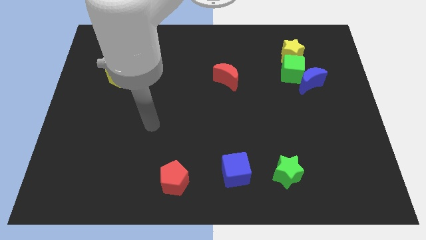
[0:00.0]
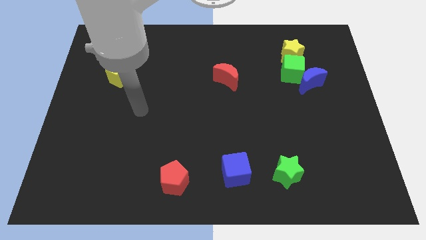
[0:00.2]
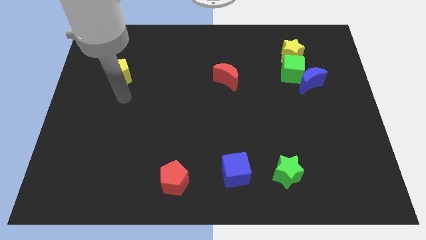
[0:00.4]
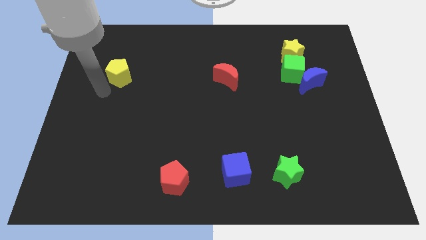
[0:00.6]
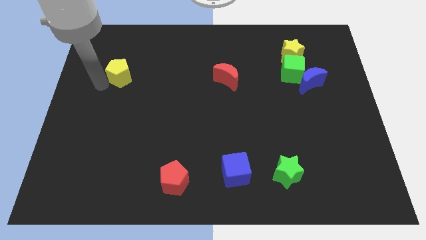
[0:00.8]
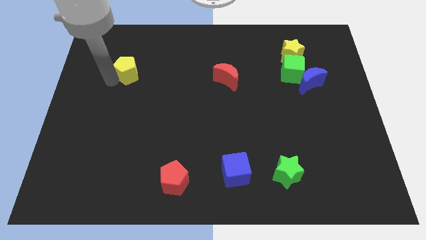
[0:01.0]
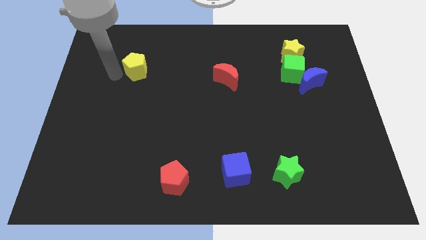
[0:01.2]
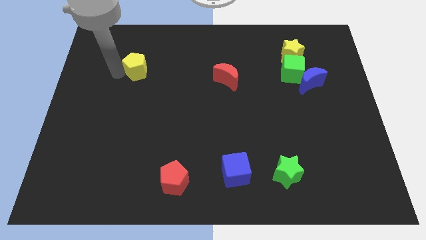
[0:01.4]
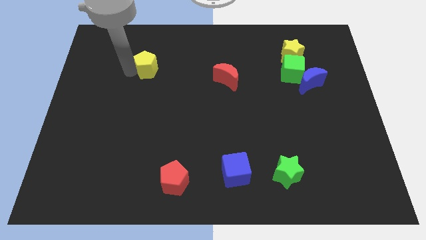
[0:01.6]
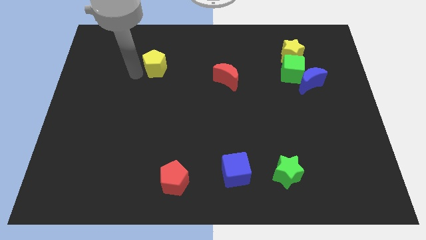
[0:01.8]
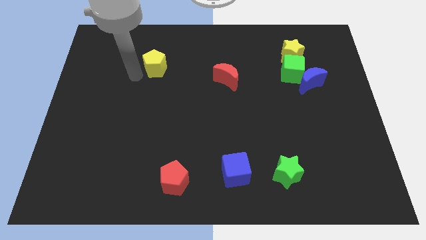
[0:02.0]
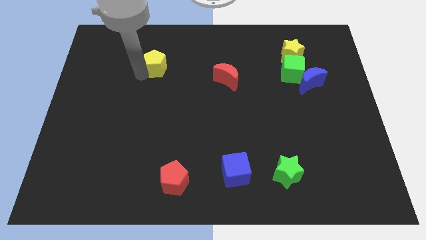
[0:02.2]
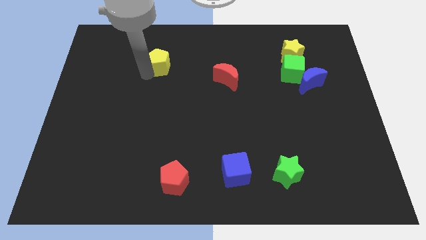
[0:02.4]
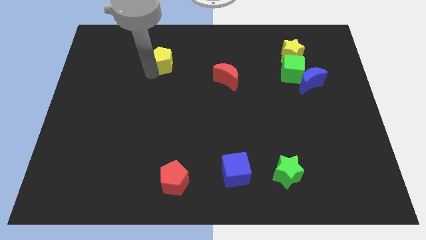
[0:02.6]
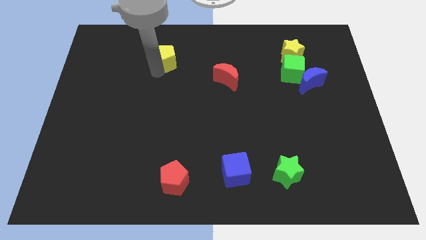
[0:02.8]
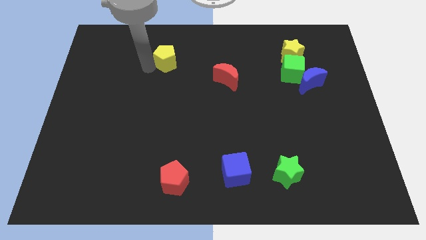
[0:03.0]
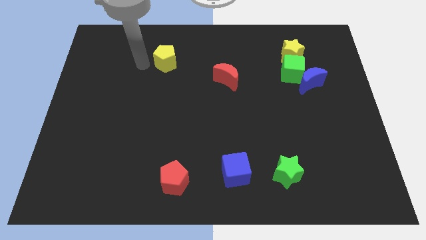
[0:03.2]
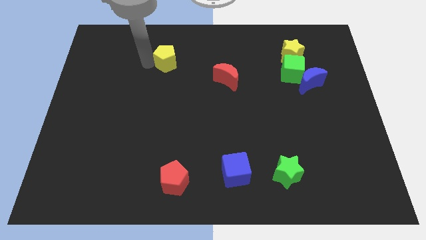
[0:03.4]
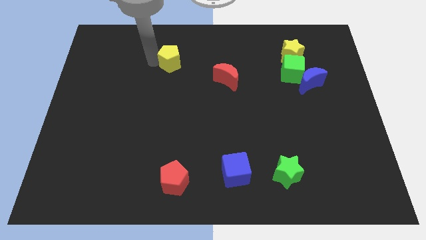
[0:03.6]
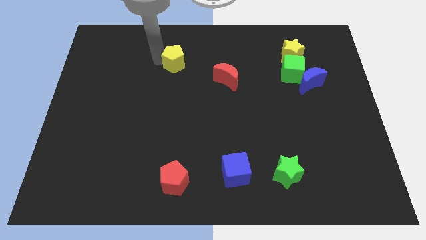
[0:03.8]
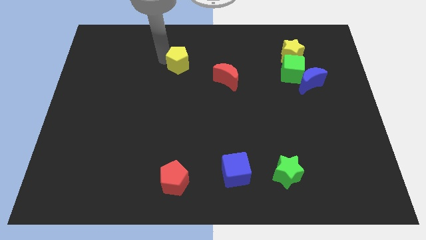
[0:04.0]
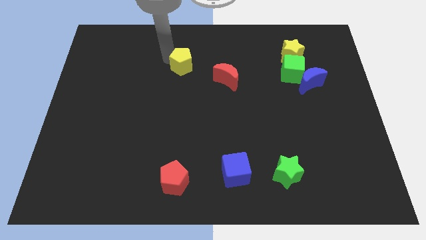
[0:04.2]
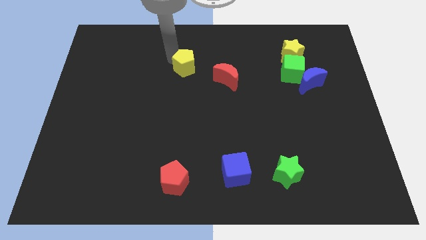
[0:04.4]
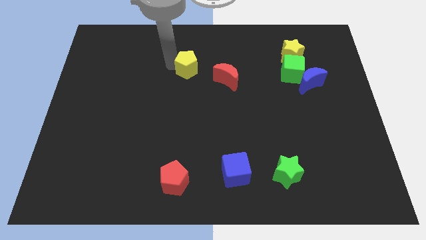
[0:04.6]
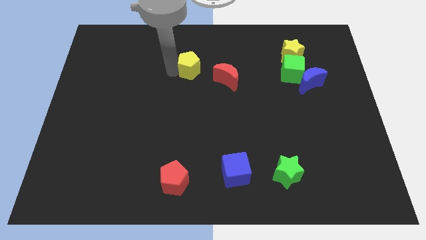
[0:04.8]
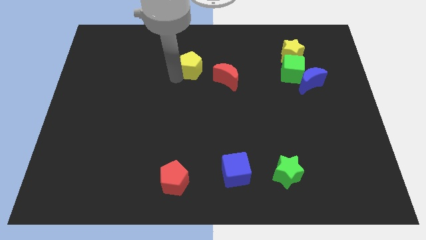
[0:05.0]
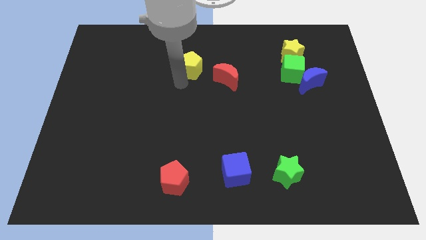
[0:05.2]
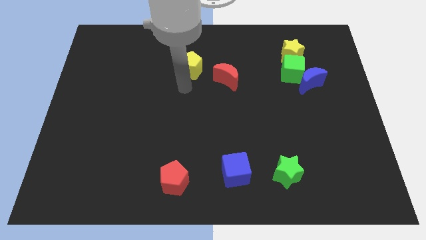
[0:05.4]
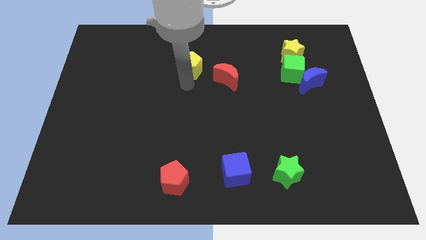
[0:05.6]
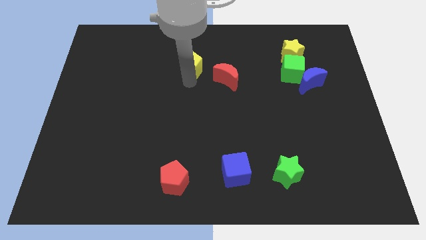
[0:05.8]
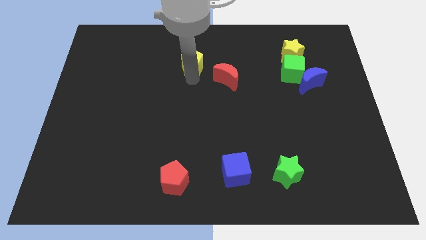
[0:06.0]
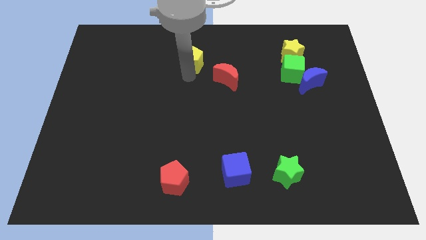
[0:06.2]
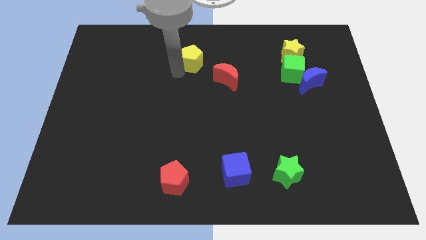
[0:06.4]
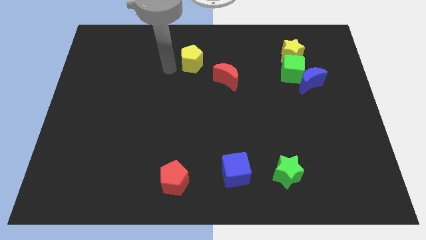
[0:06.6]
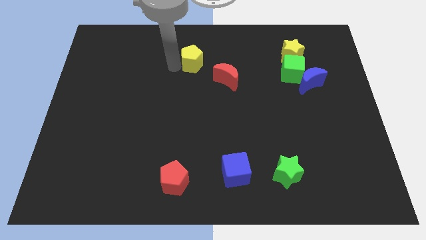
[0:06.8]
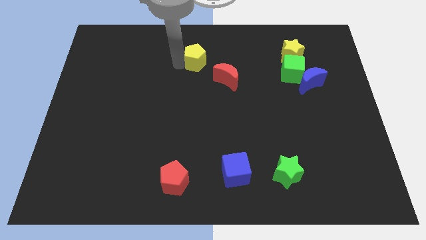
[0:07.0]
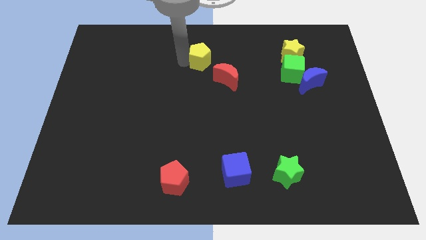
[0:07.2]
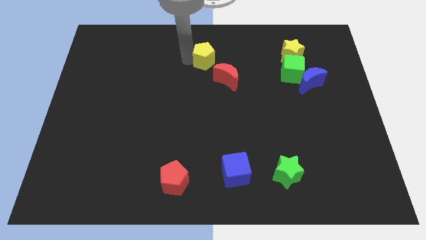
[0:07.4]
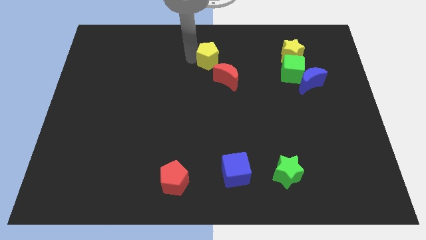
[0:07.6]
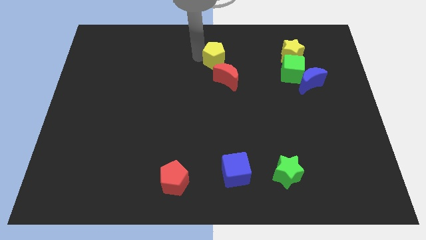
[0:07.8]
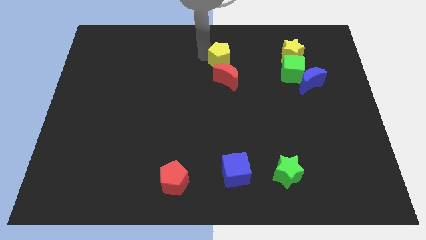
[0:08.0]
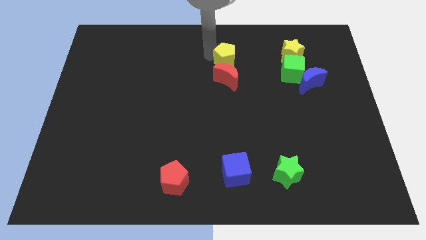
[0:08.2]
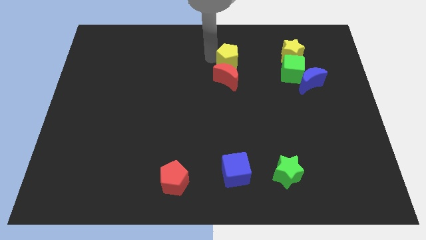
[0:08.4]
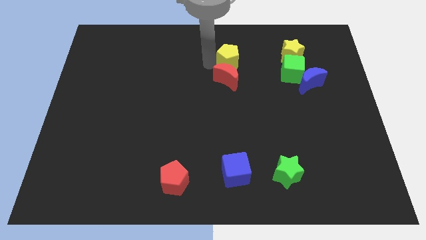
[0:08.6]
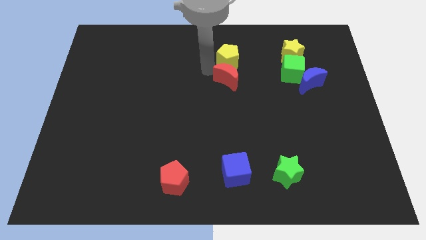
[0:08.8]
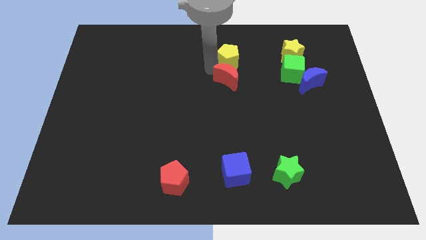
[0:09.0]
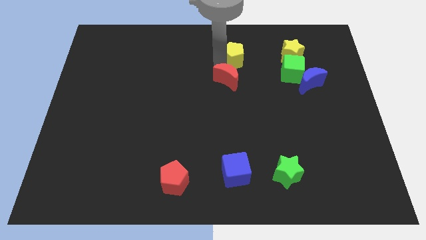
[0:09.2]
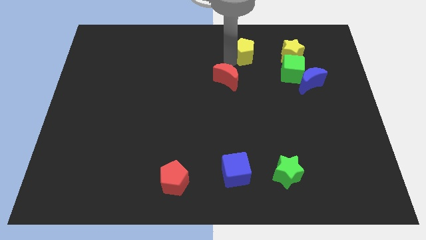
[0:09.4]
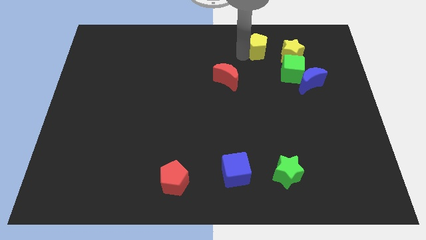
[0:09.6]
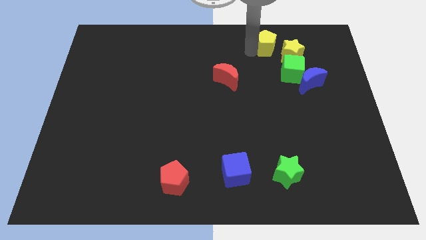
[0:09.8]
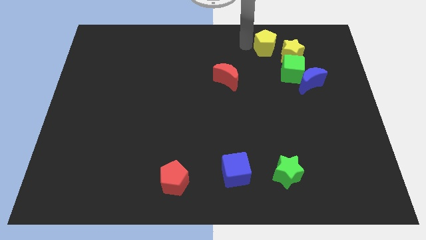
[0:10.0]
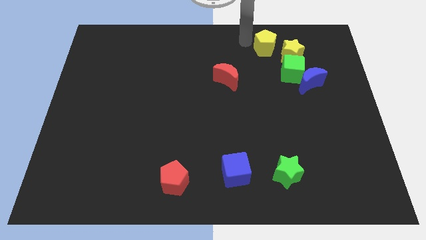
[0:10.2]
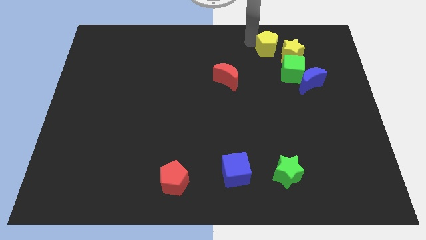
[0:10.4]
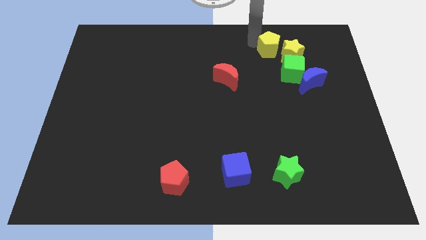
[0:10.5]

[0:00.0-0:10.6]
push the yellow pentagon towards the yellow star

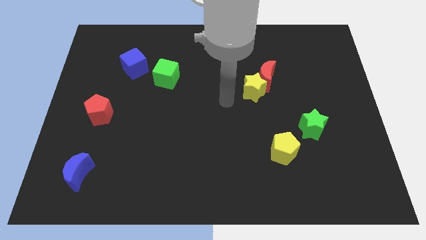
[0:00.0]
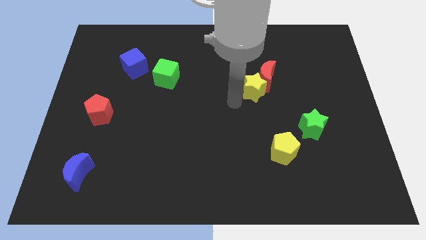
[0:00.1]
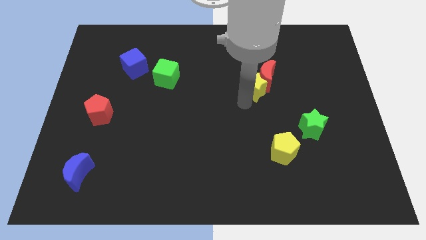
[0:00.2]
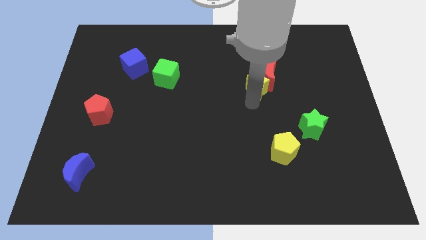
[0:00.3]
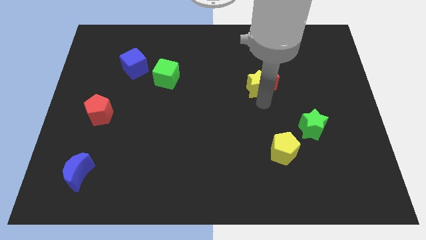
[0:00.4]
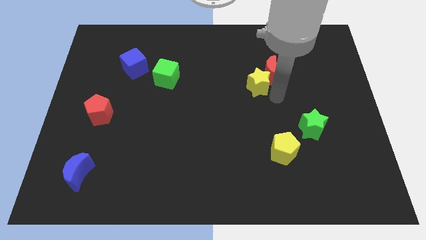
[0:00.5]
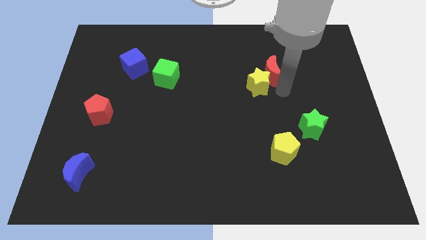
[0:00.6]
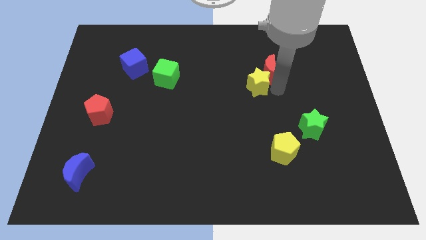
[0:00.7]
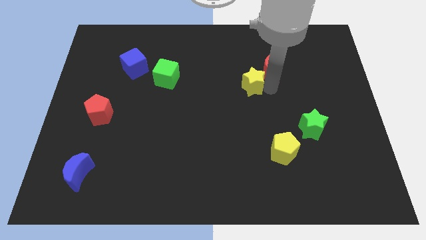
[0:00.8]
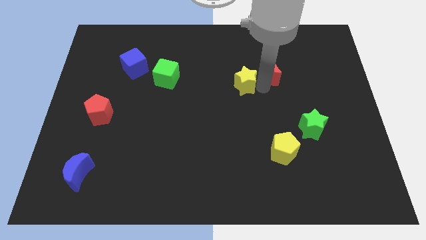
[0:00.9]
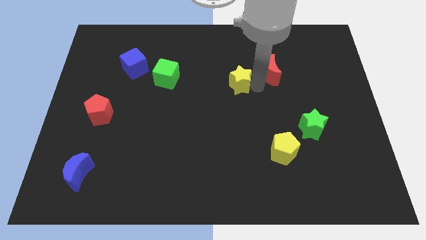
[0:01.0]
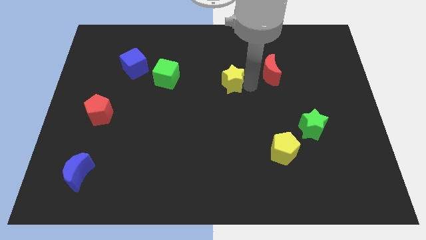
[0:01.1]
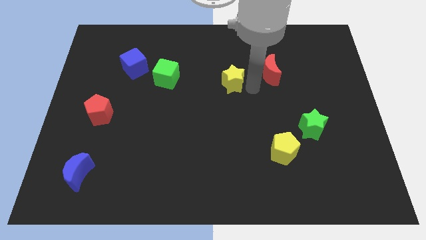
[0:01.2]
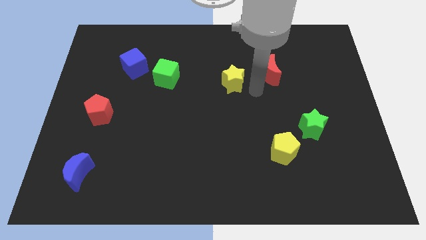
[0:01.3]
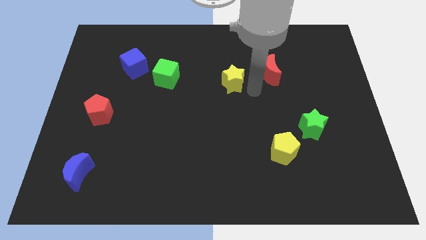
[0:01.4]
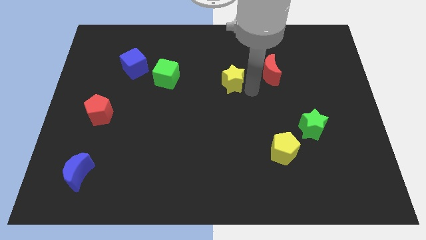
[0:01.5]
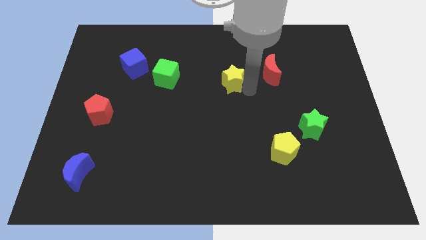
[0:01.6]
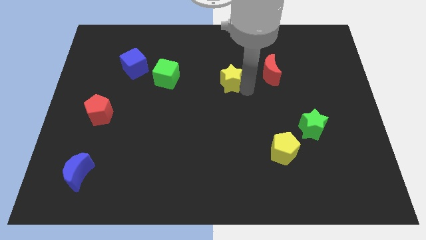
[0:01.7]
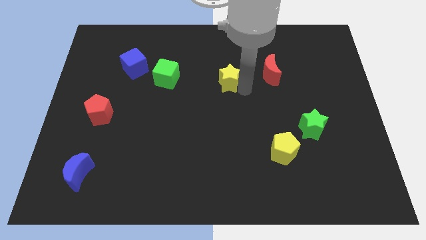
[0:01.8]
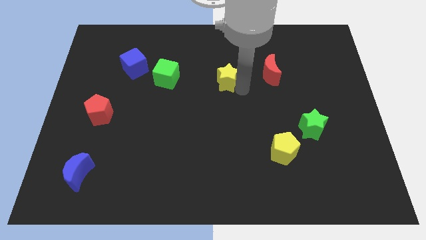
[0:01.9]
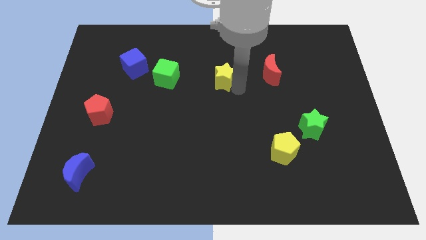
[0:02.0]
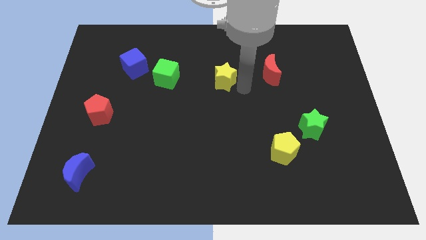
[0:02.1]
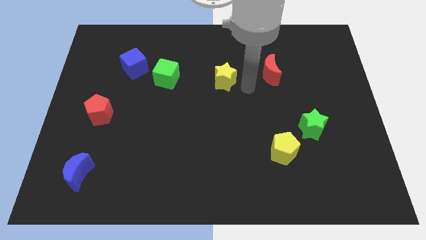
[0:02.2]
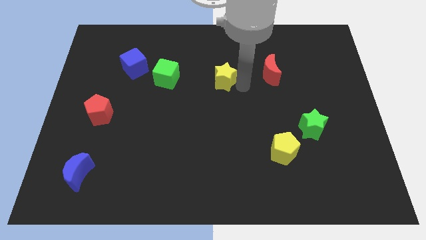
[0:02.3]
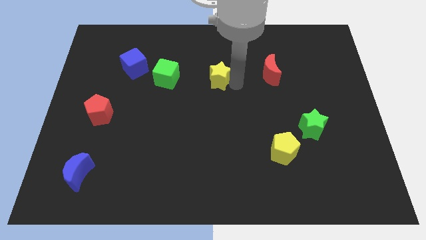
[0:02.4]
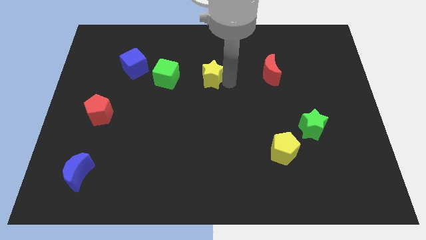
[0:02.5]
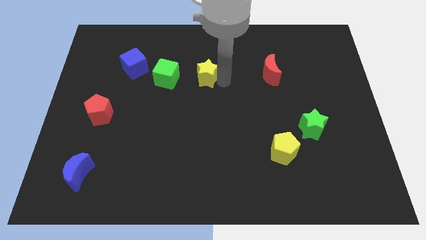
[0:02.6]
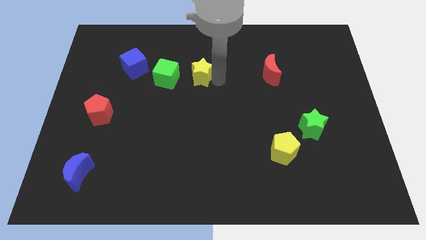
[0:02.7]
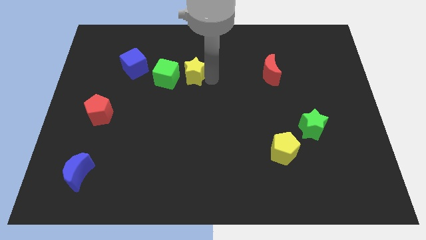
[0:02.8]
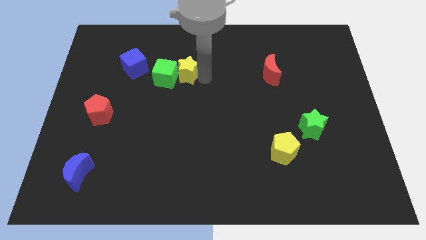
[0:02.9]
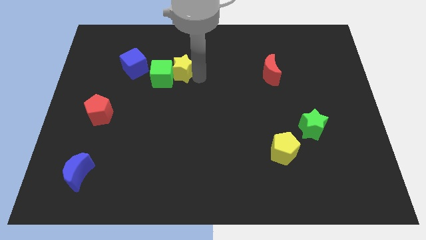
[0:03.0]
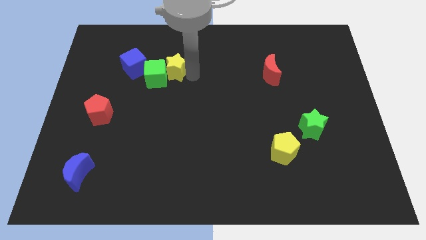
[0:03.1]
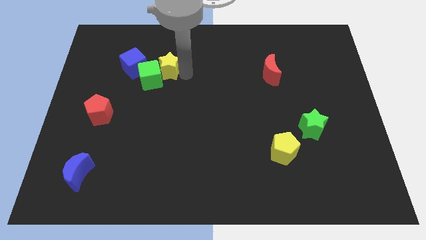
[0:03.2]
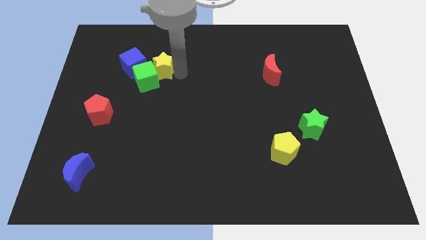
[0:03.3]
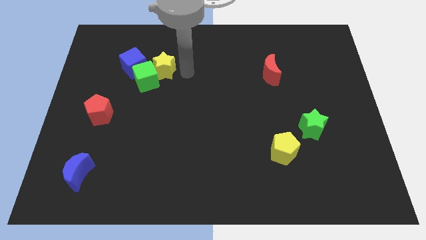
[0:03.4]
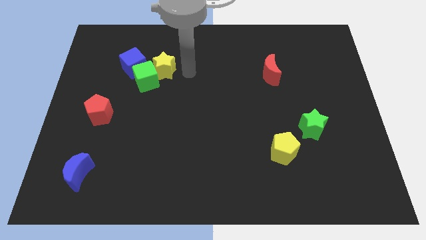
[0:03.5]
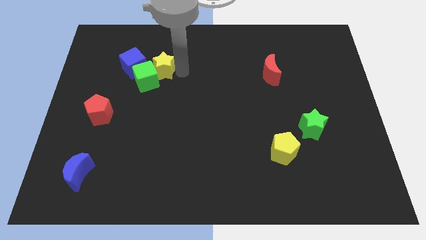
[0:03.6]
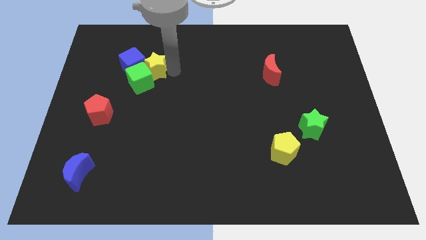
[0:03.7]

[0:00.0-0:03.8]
push the yellow star next to the blue cube
